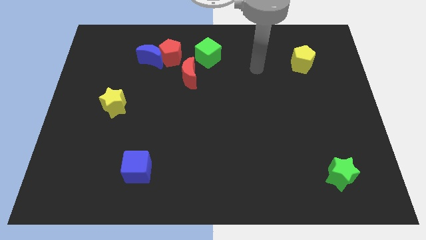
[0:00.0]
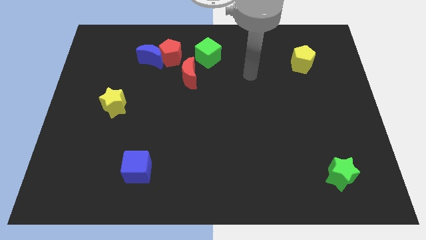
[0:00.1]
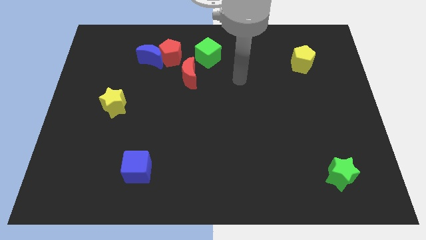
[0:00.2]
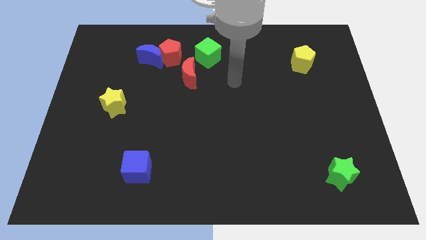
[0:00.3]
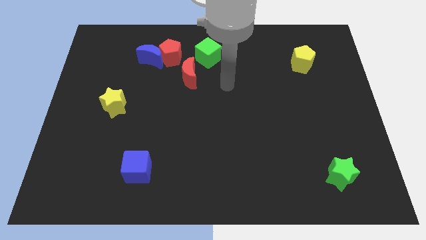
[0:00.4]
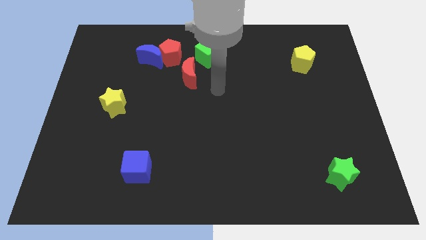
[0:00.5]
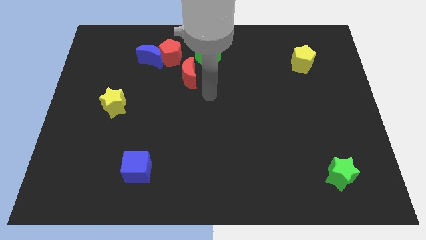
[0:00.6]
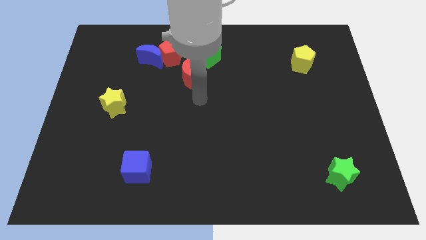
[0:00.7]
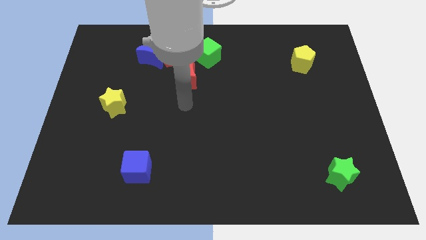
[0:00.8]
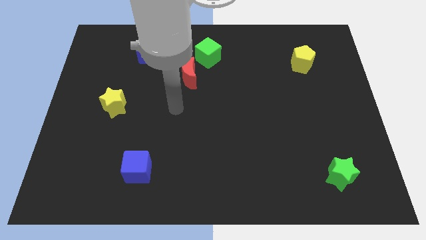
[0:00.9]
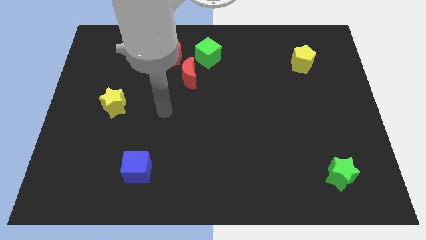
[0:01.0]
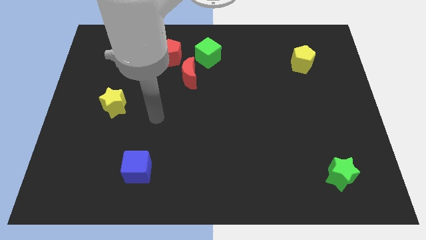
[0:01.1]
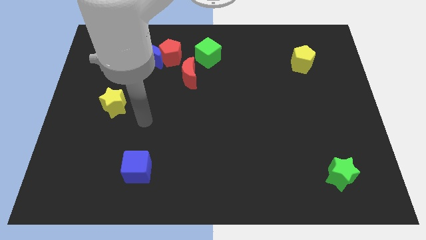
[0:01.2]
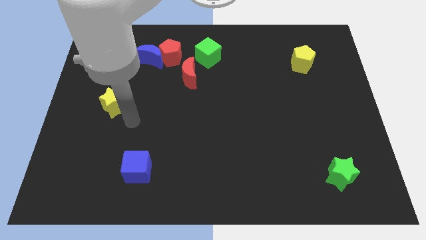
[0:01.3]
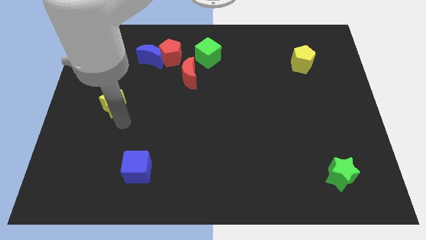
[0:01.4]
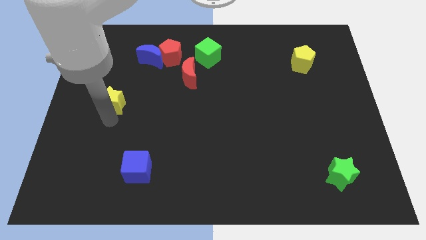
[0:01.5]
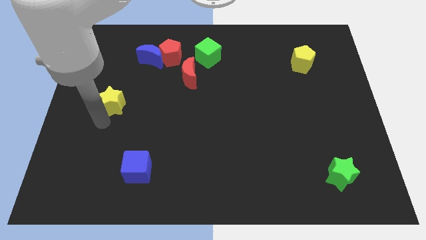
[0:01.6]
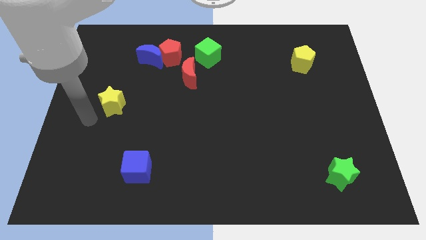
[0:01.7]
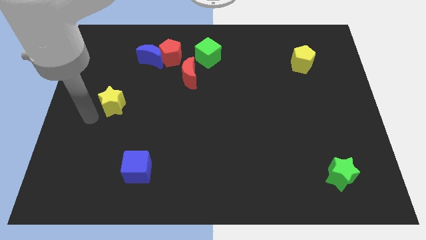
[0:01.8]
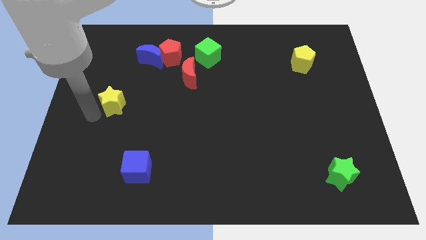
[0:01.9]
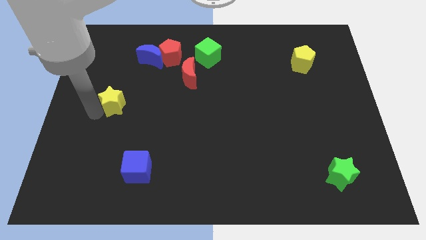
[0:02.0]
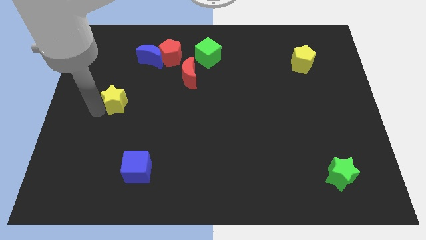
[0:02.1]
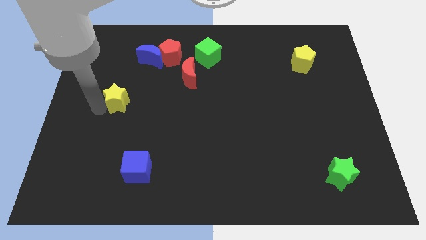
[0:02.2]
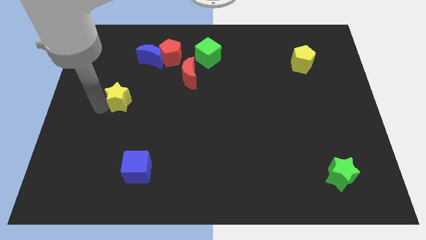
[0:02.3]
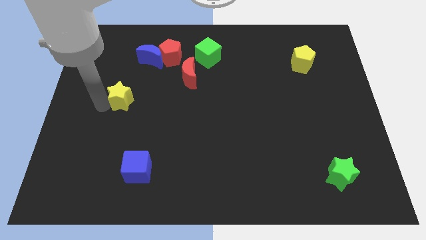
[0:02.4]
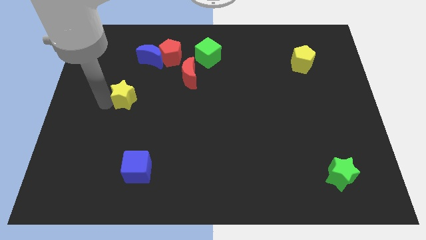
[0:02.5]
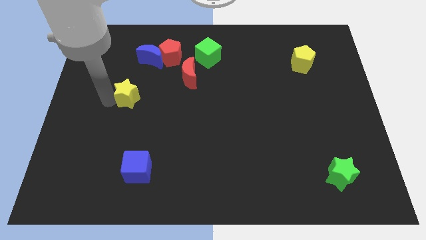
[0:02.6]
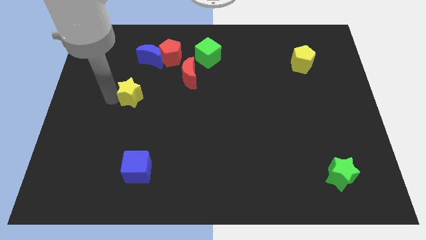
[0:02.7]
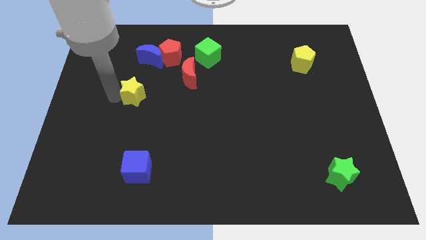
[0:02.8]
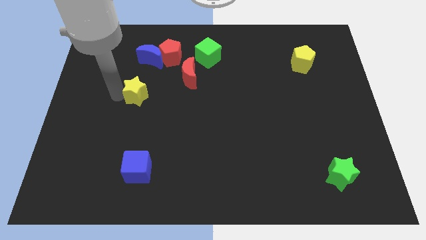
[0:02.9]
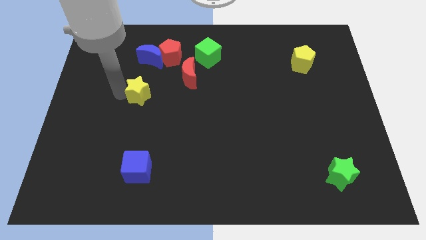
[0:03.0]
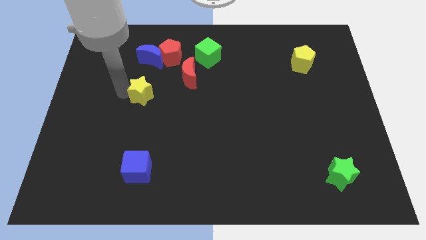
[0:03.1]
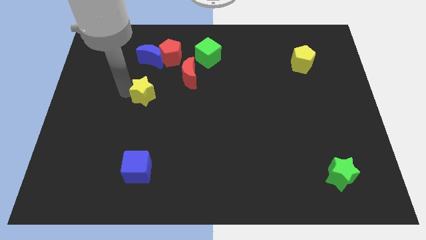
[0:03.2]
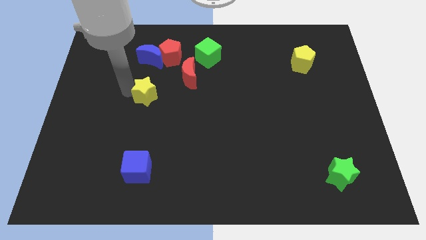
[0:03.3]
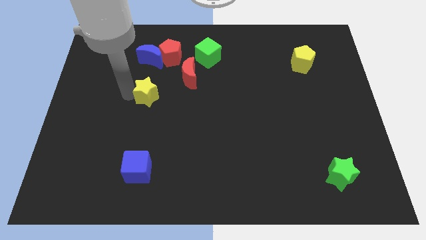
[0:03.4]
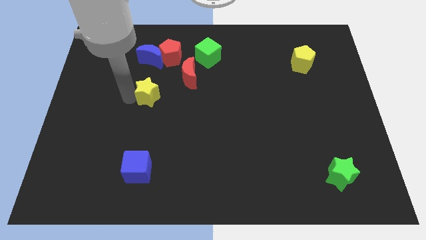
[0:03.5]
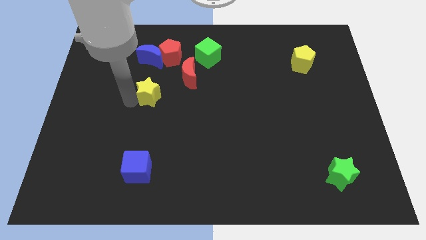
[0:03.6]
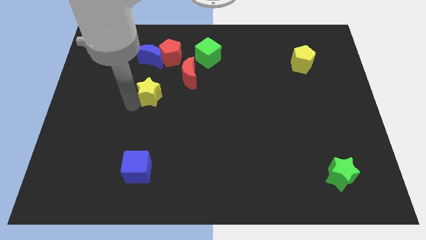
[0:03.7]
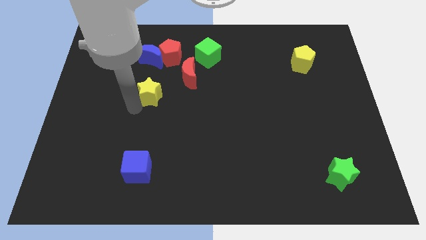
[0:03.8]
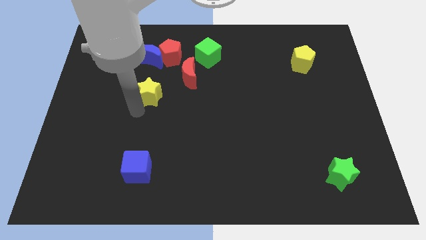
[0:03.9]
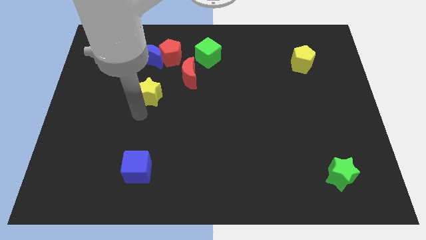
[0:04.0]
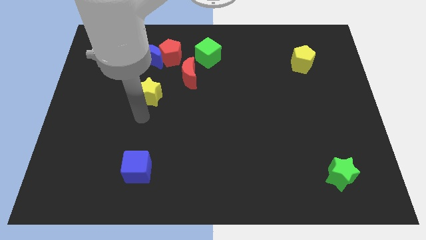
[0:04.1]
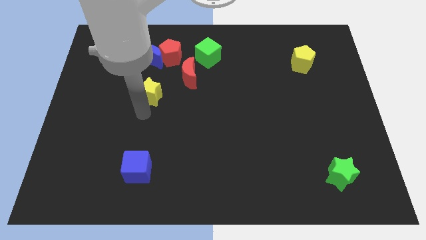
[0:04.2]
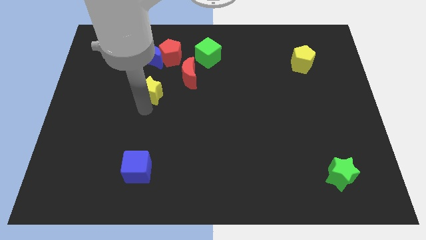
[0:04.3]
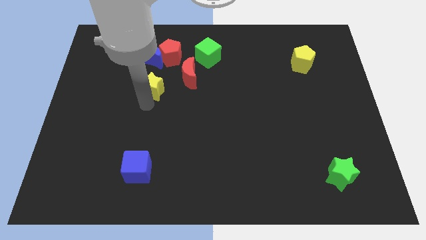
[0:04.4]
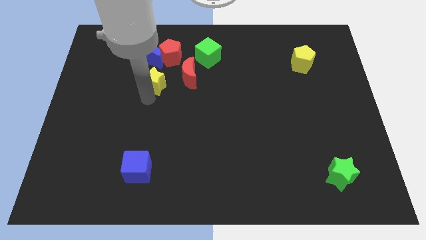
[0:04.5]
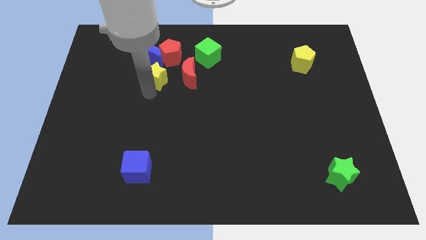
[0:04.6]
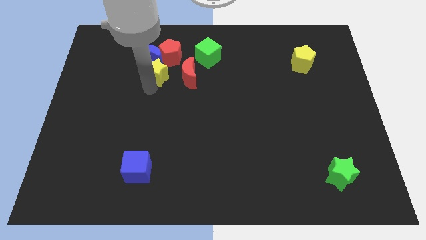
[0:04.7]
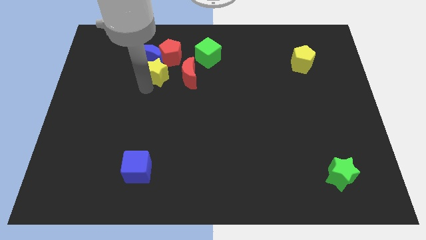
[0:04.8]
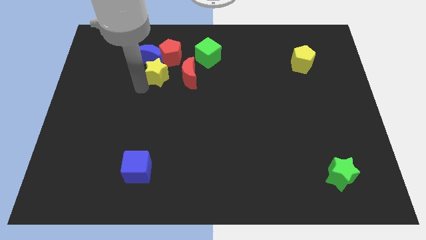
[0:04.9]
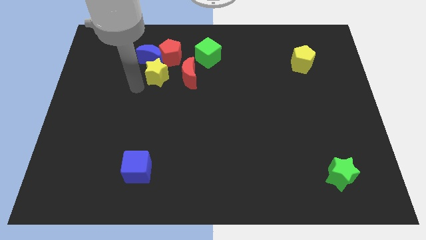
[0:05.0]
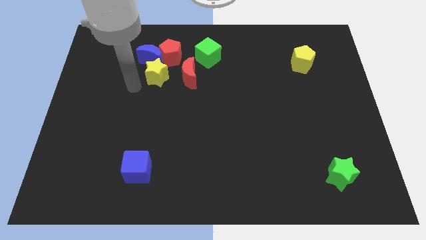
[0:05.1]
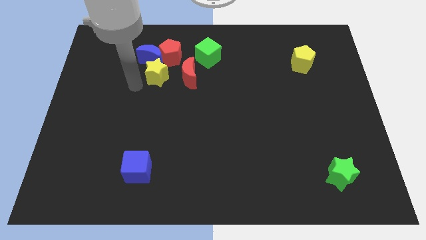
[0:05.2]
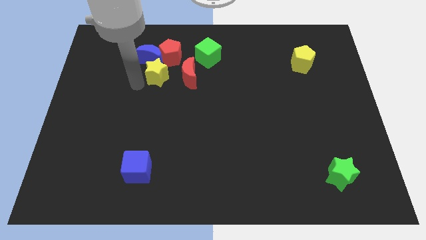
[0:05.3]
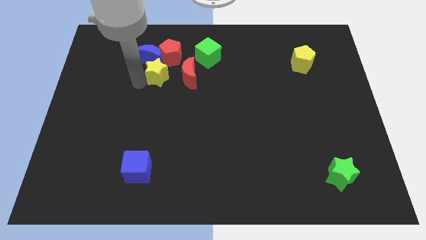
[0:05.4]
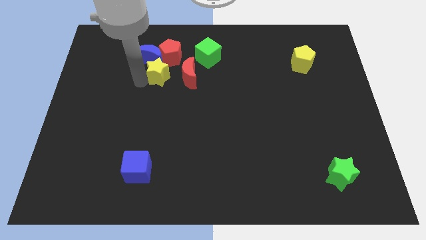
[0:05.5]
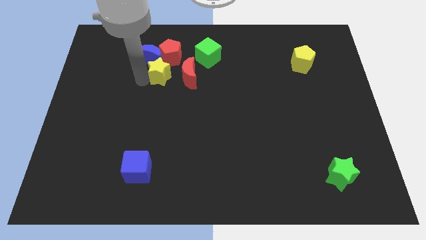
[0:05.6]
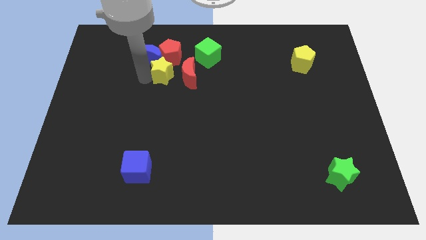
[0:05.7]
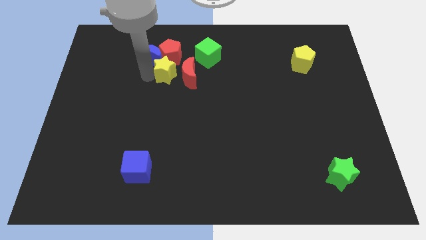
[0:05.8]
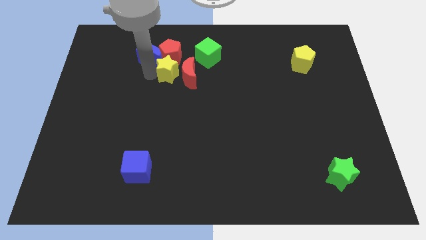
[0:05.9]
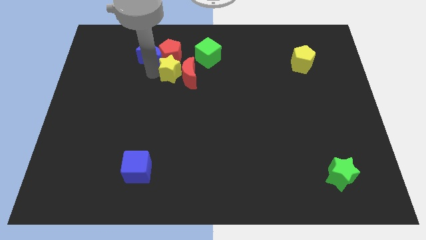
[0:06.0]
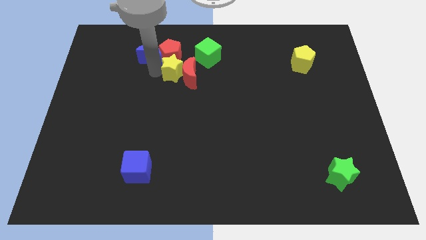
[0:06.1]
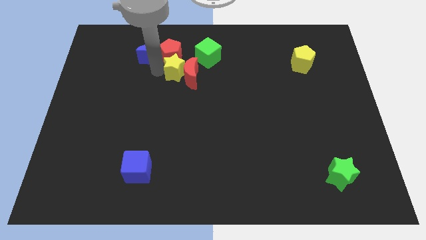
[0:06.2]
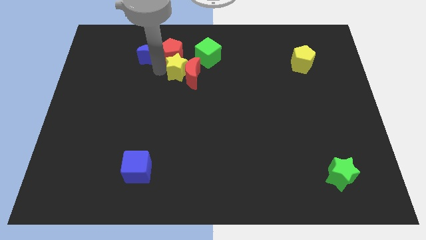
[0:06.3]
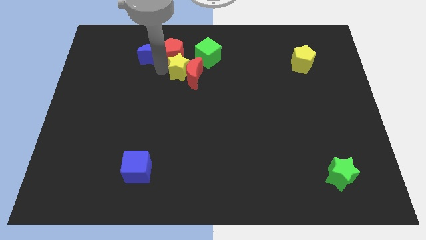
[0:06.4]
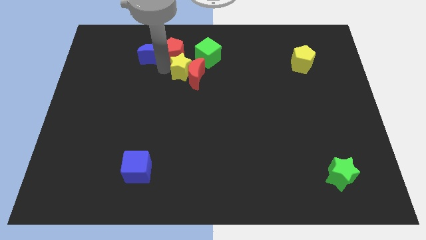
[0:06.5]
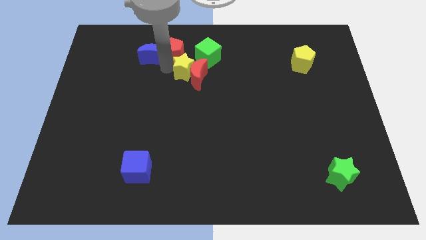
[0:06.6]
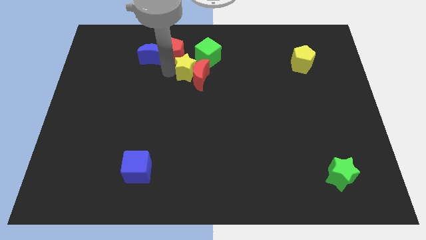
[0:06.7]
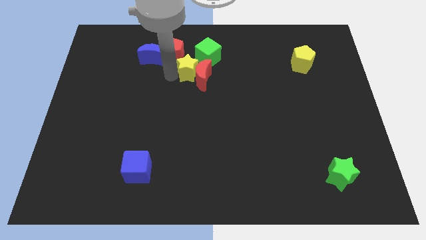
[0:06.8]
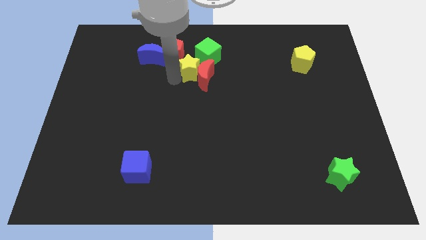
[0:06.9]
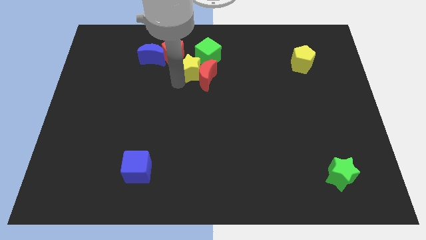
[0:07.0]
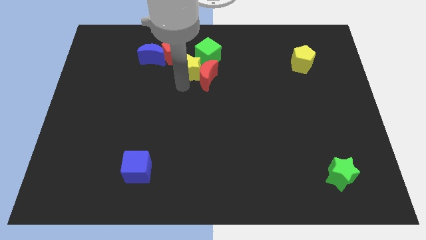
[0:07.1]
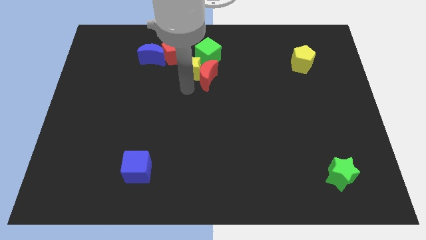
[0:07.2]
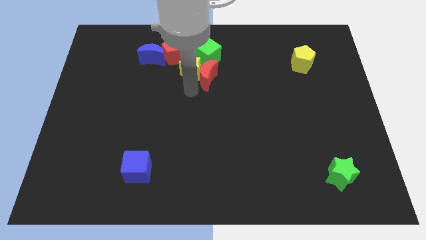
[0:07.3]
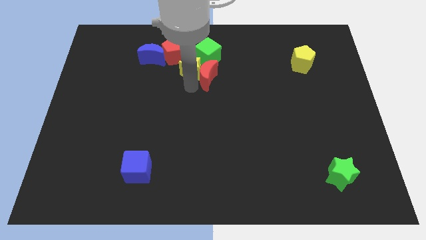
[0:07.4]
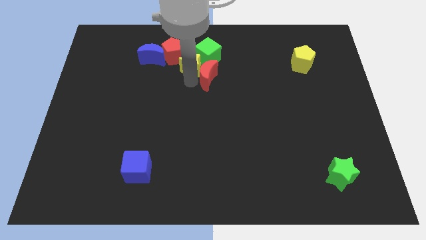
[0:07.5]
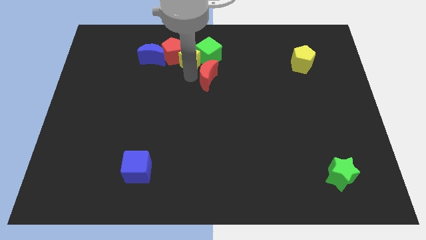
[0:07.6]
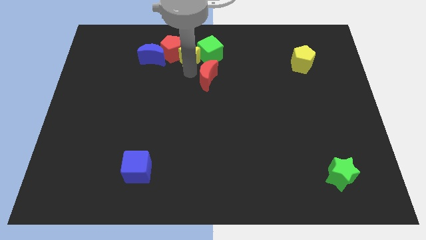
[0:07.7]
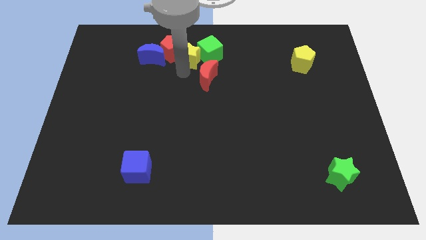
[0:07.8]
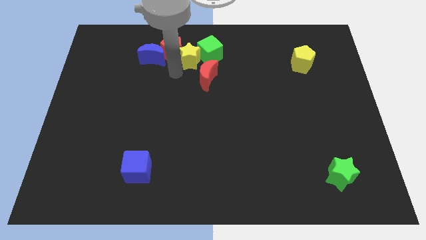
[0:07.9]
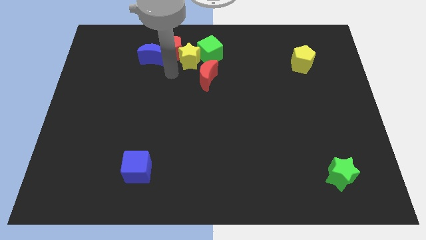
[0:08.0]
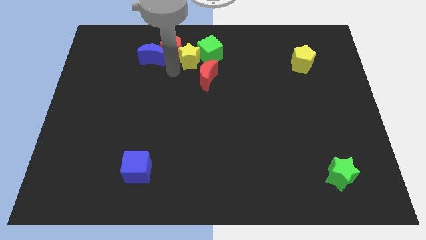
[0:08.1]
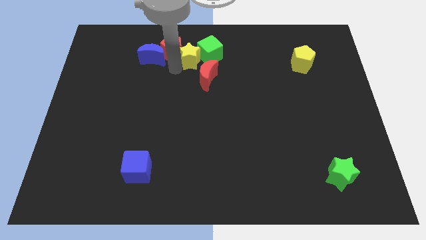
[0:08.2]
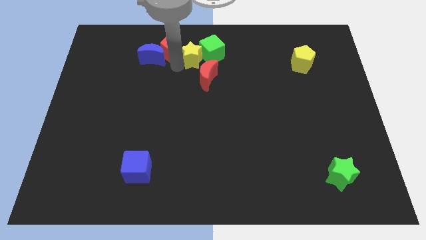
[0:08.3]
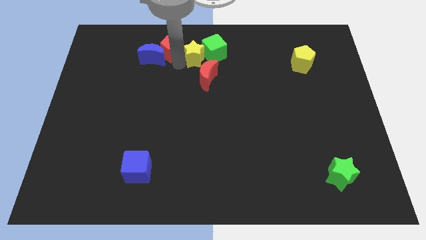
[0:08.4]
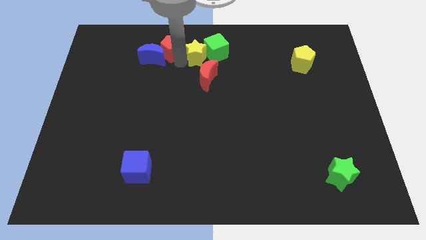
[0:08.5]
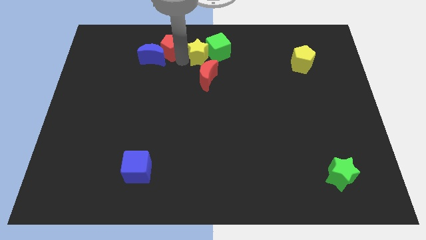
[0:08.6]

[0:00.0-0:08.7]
put the yellow star to the top side
